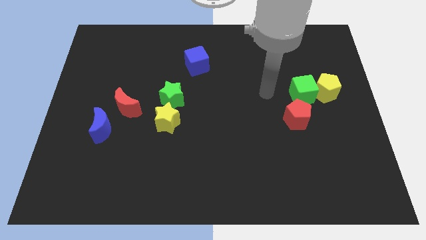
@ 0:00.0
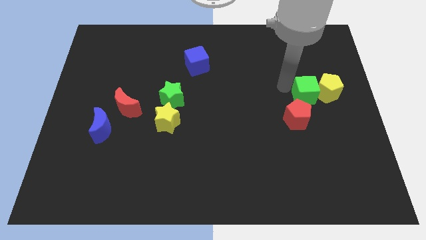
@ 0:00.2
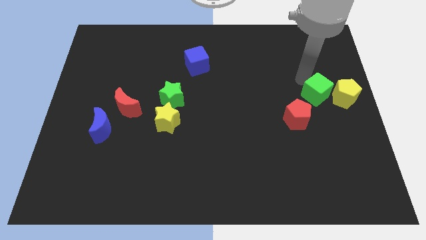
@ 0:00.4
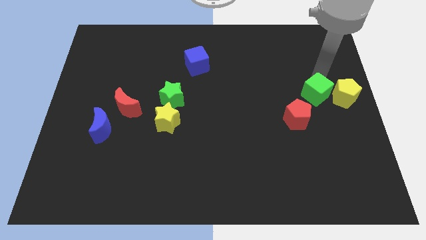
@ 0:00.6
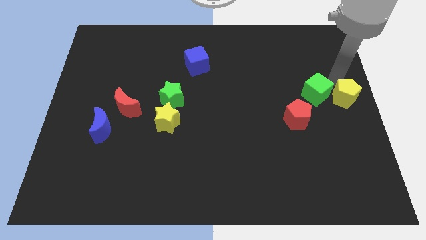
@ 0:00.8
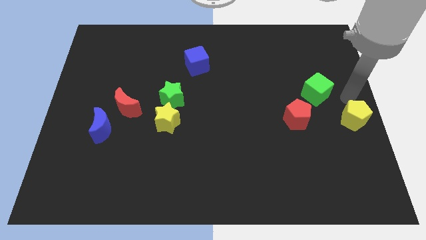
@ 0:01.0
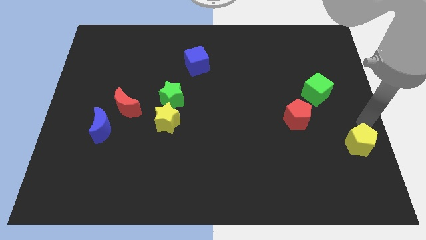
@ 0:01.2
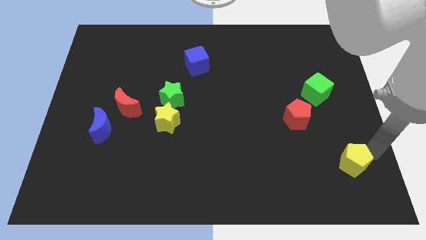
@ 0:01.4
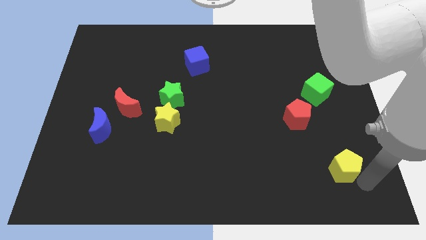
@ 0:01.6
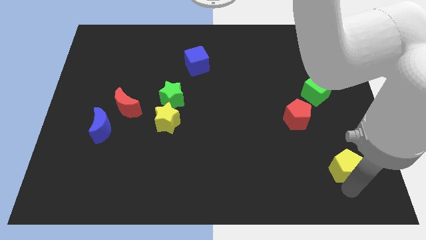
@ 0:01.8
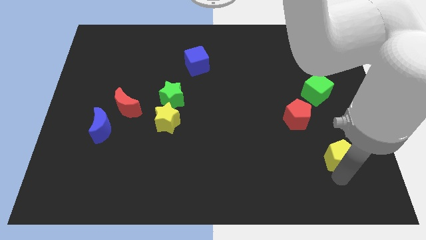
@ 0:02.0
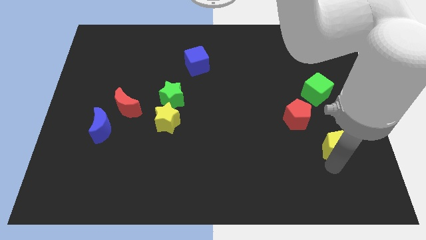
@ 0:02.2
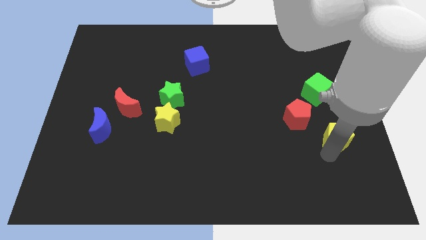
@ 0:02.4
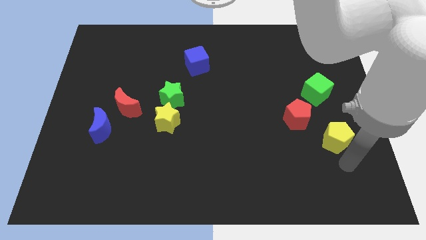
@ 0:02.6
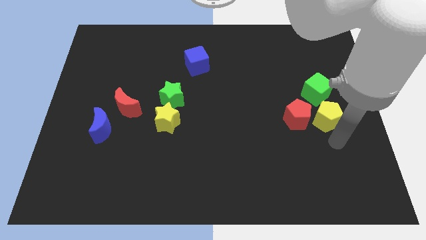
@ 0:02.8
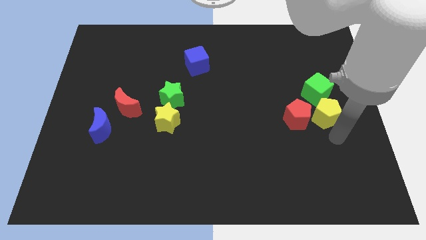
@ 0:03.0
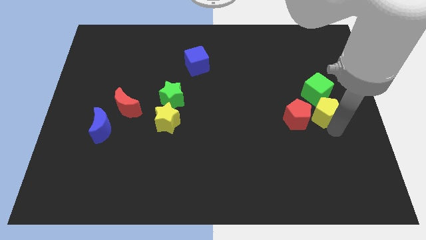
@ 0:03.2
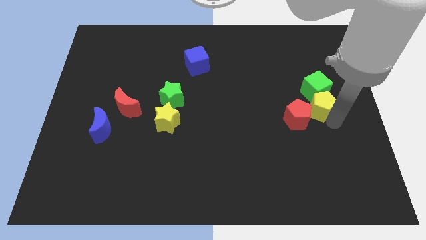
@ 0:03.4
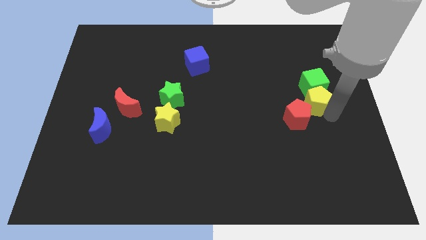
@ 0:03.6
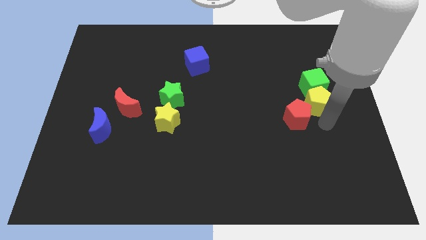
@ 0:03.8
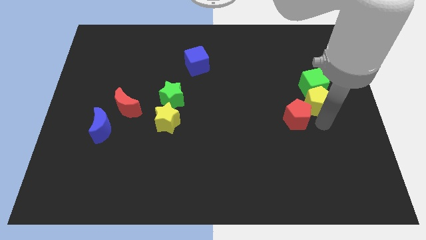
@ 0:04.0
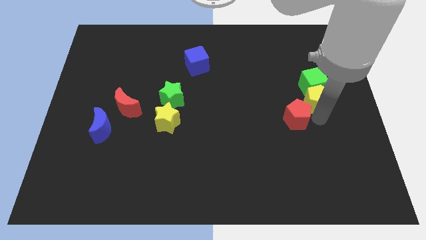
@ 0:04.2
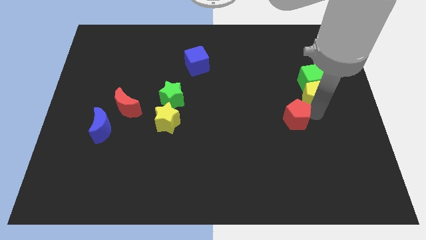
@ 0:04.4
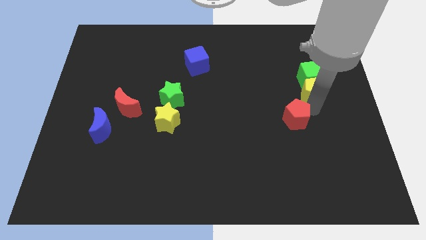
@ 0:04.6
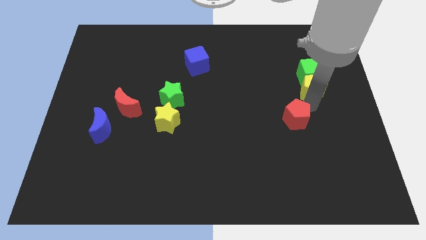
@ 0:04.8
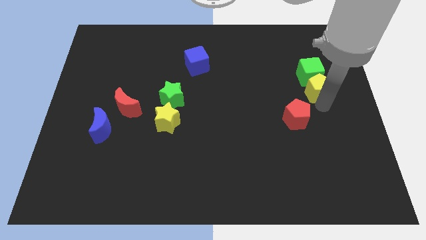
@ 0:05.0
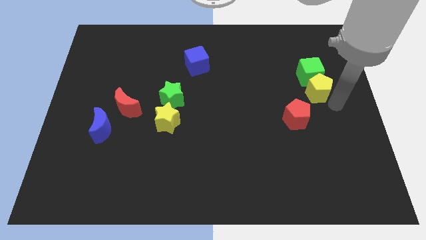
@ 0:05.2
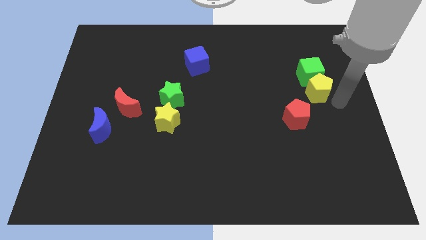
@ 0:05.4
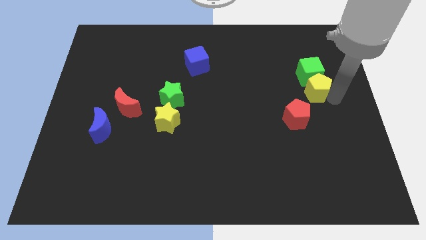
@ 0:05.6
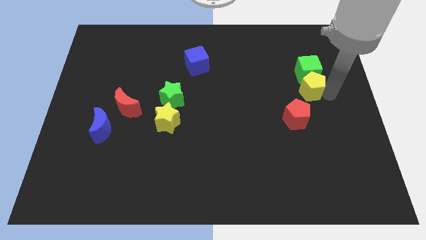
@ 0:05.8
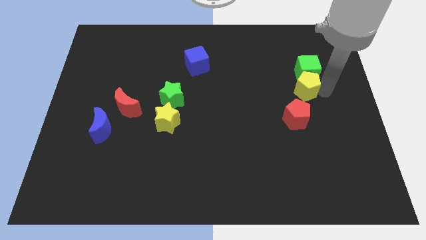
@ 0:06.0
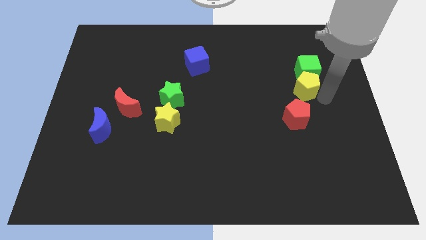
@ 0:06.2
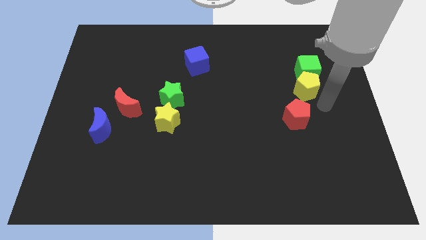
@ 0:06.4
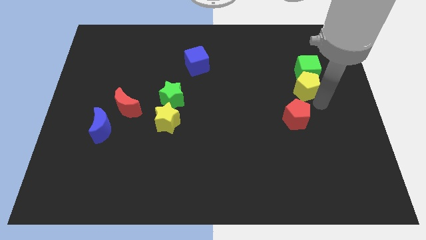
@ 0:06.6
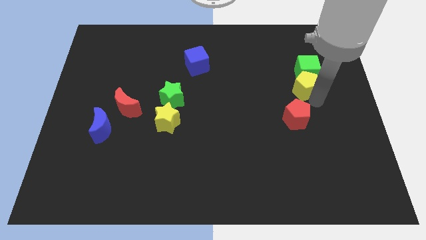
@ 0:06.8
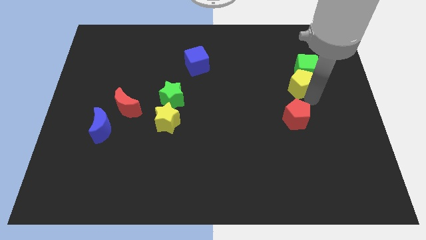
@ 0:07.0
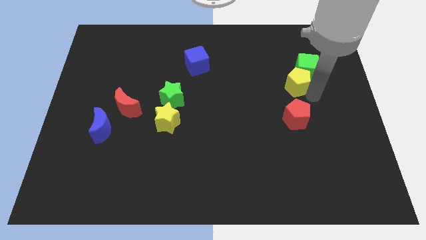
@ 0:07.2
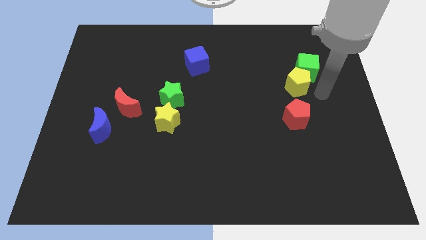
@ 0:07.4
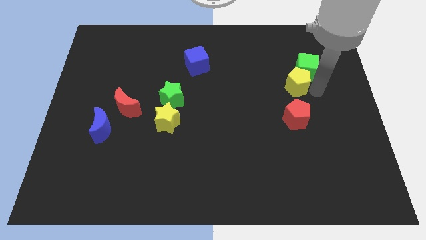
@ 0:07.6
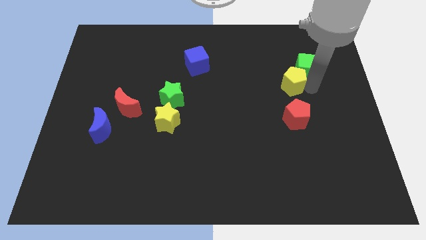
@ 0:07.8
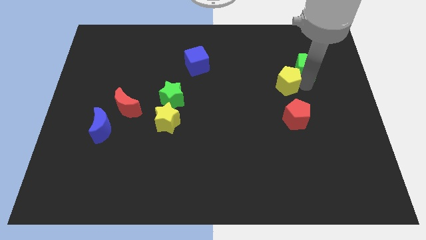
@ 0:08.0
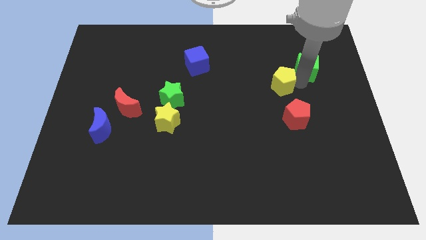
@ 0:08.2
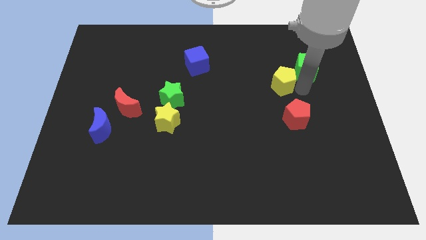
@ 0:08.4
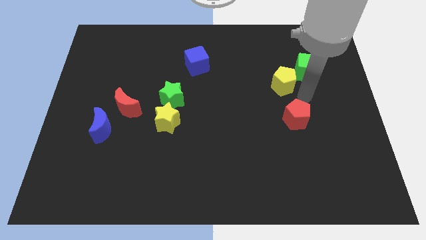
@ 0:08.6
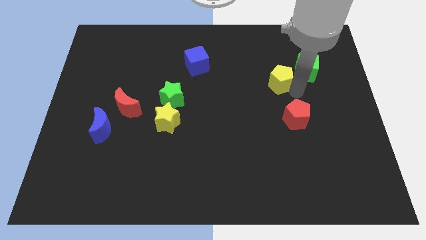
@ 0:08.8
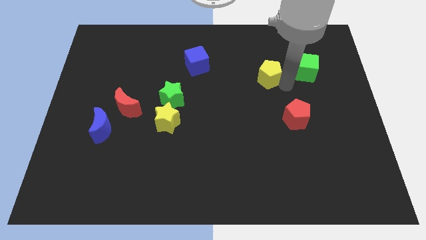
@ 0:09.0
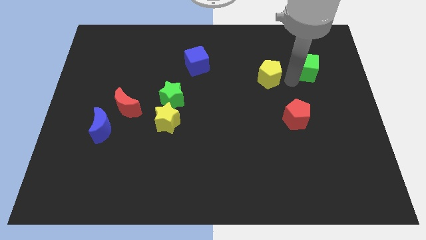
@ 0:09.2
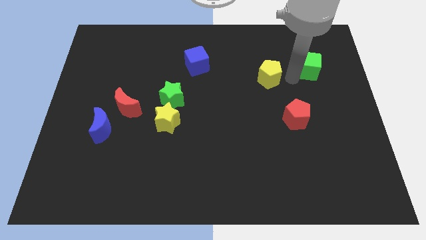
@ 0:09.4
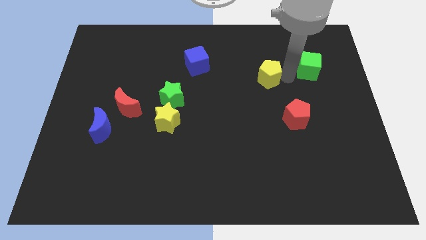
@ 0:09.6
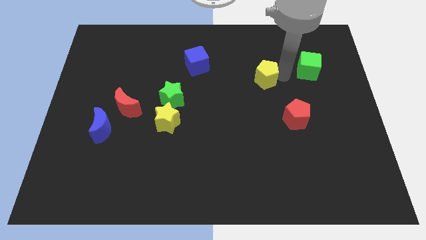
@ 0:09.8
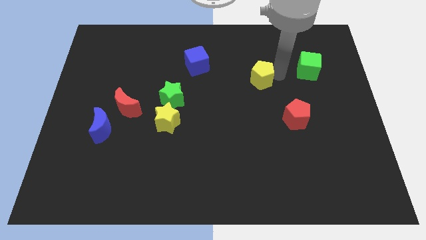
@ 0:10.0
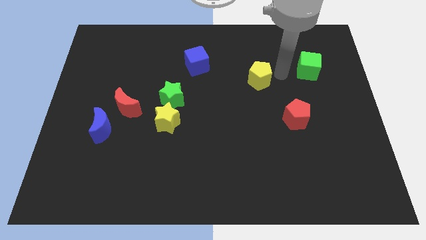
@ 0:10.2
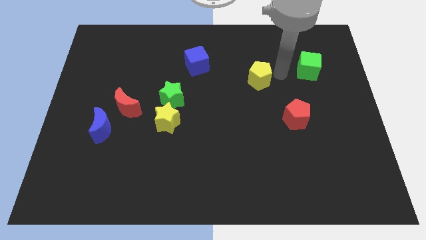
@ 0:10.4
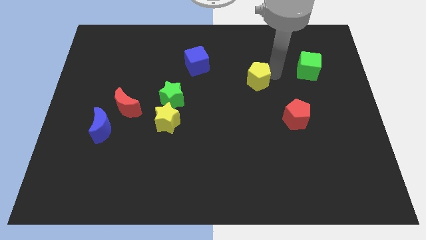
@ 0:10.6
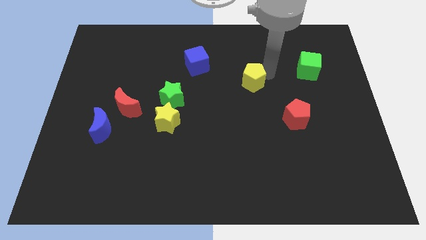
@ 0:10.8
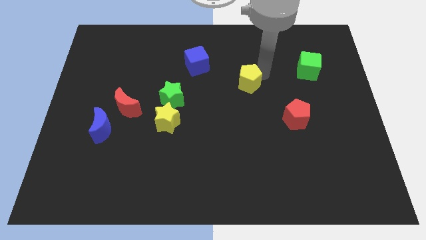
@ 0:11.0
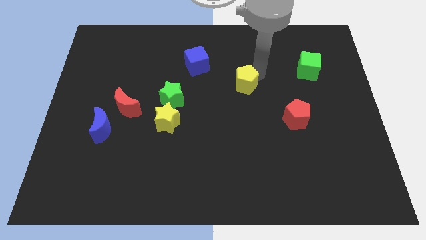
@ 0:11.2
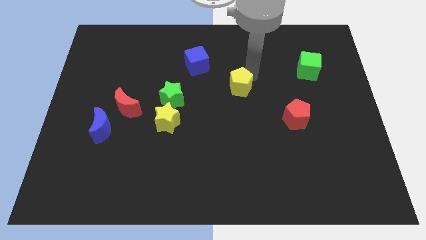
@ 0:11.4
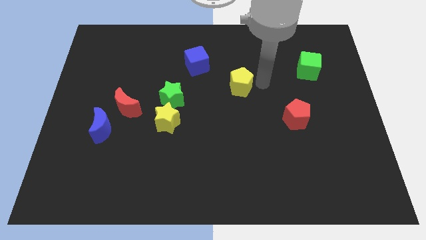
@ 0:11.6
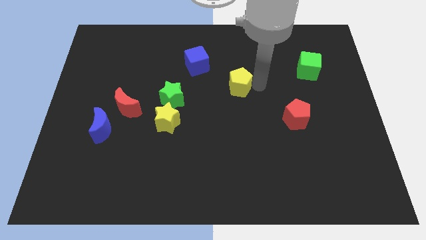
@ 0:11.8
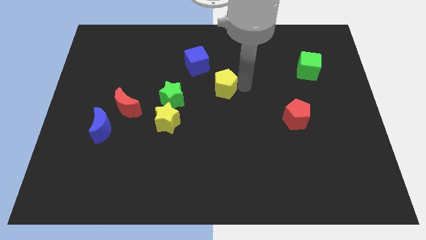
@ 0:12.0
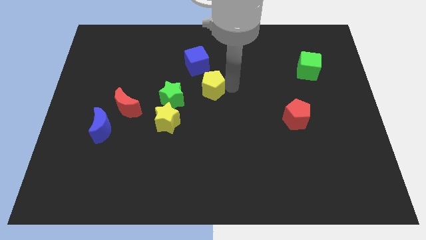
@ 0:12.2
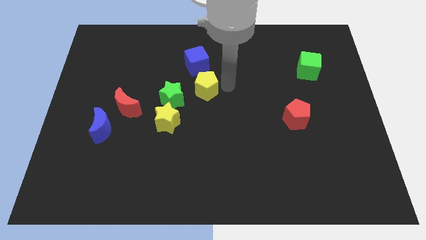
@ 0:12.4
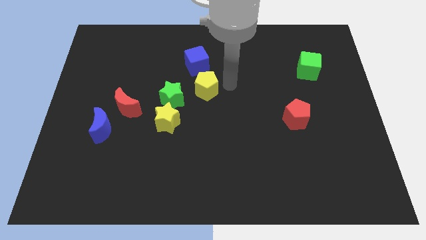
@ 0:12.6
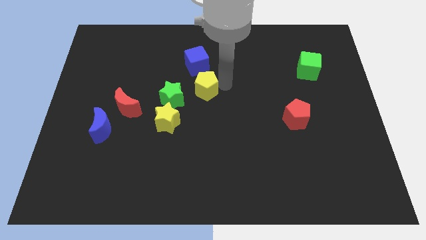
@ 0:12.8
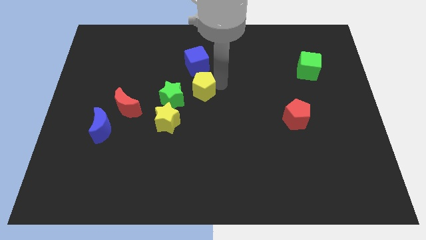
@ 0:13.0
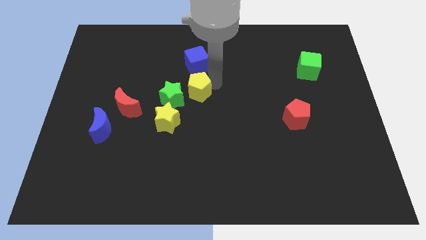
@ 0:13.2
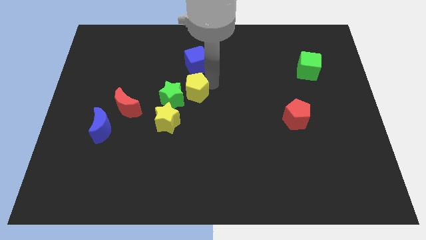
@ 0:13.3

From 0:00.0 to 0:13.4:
move the yellow pentagon to the green star

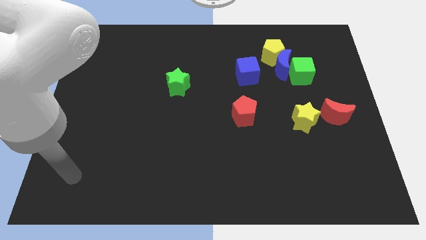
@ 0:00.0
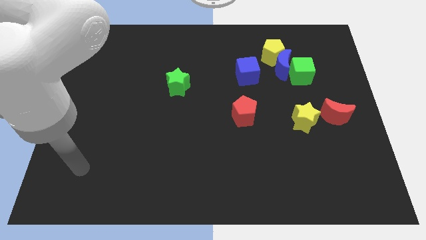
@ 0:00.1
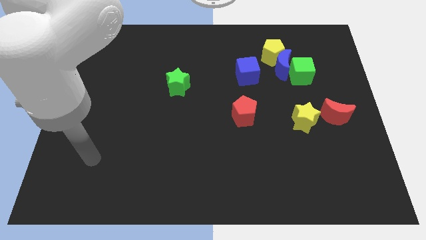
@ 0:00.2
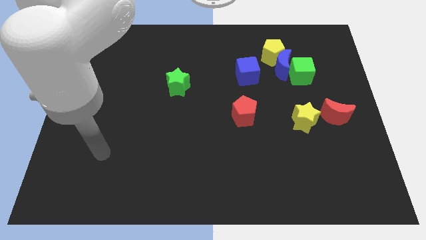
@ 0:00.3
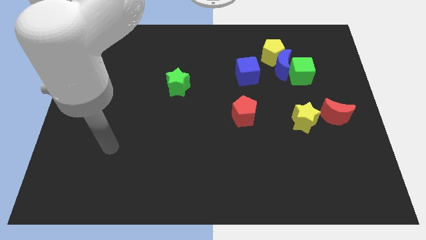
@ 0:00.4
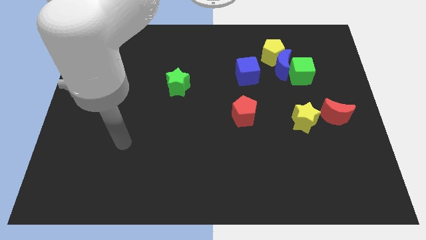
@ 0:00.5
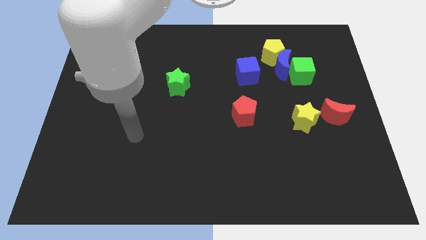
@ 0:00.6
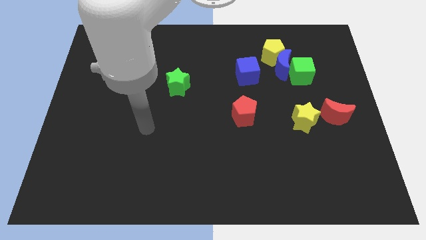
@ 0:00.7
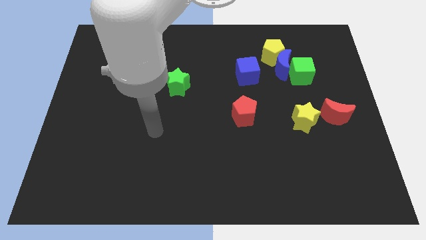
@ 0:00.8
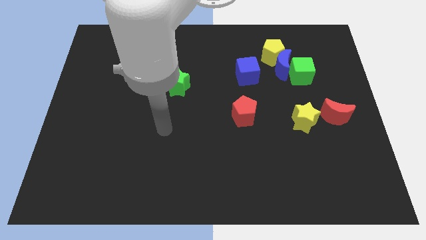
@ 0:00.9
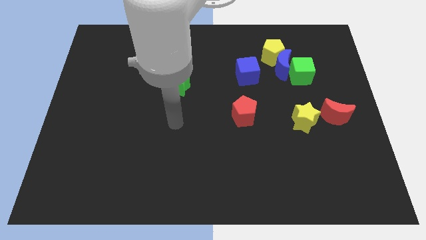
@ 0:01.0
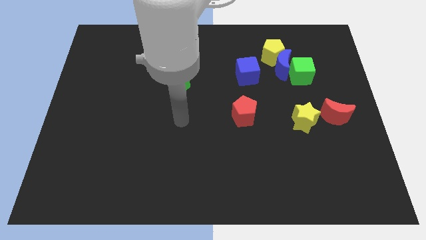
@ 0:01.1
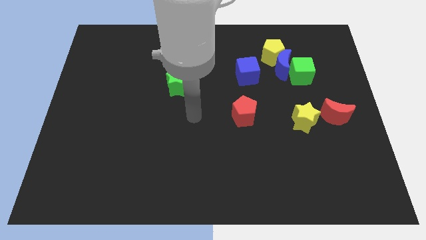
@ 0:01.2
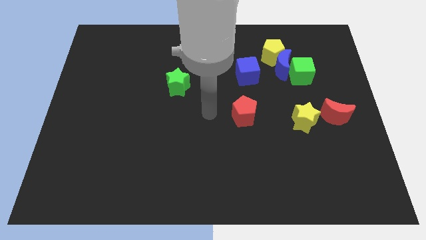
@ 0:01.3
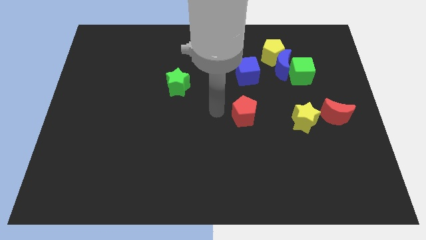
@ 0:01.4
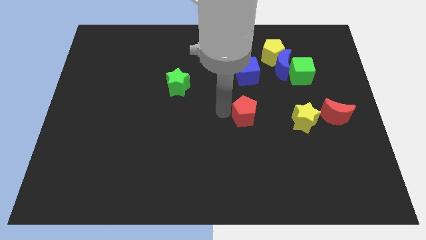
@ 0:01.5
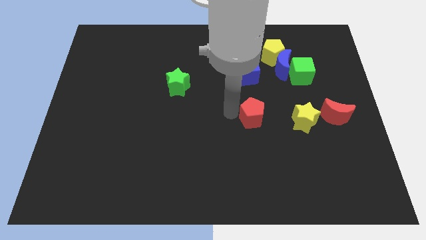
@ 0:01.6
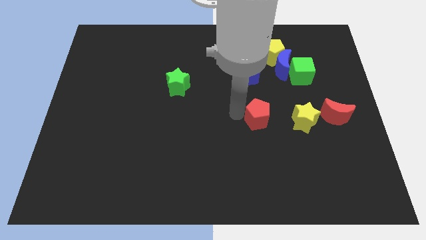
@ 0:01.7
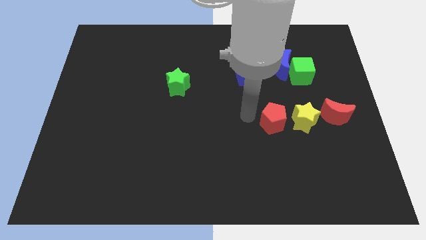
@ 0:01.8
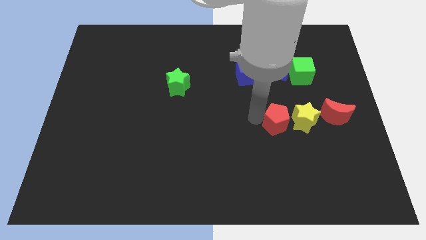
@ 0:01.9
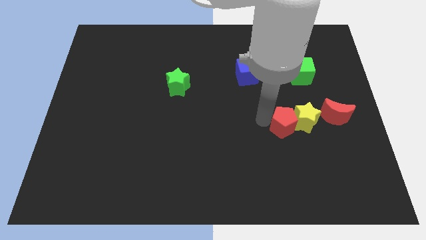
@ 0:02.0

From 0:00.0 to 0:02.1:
move the red pentagon next to the yellow star
